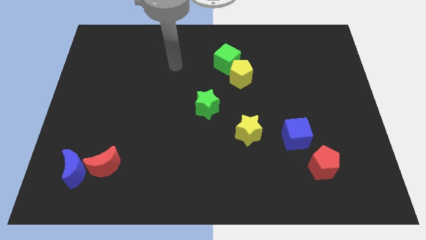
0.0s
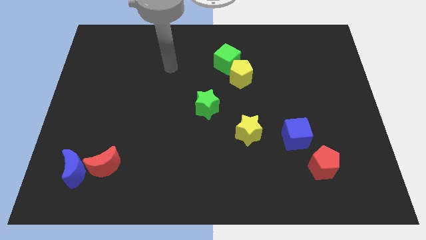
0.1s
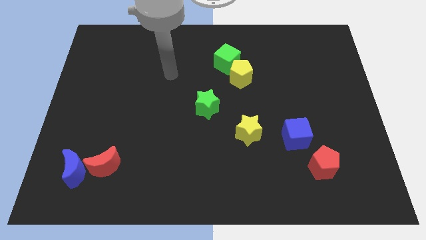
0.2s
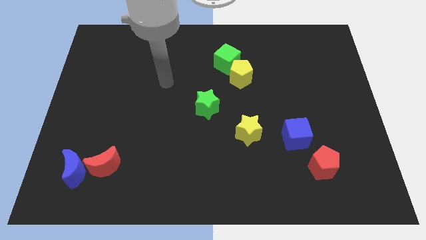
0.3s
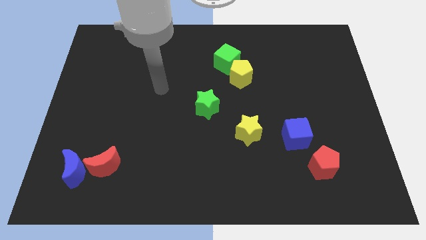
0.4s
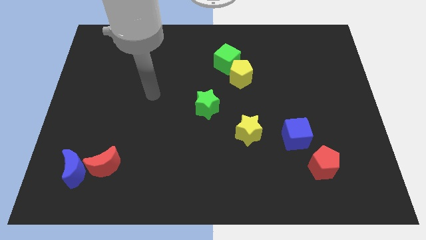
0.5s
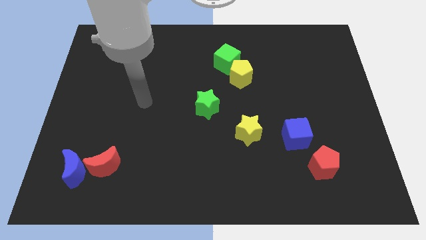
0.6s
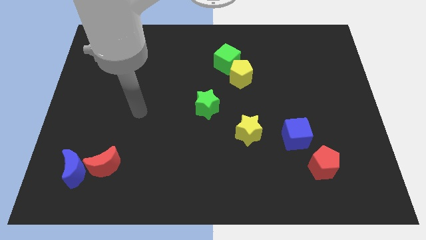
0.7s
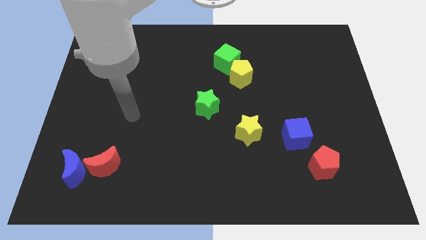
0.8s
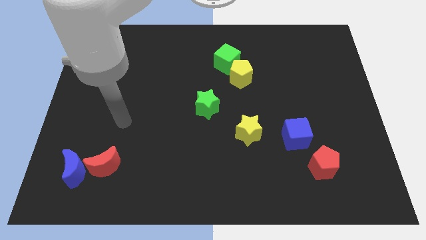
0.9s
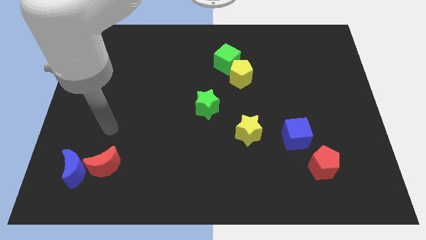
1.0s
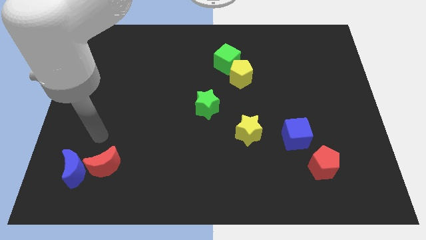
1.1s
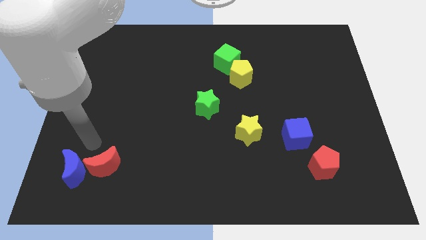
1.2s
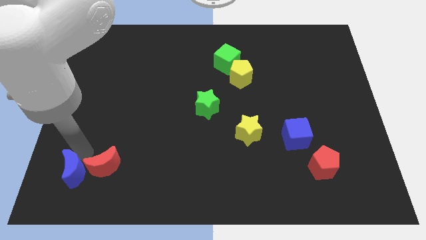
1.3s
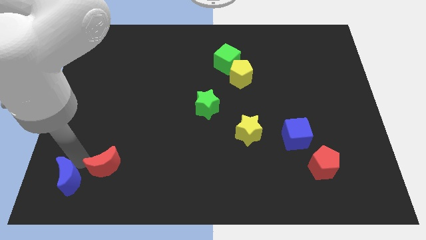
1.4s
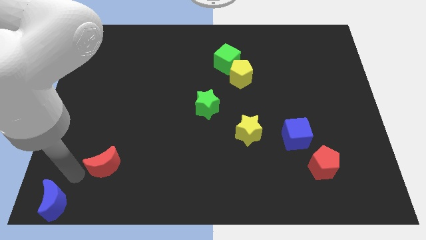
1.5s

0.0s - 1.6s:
separate the red moon from the blue moon

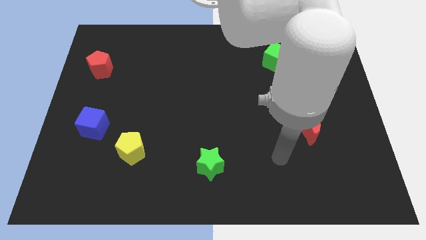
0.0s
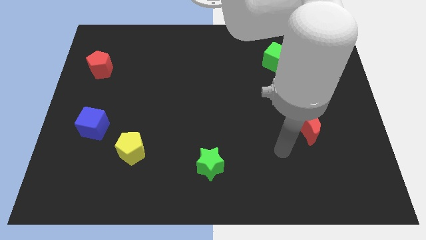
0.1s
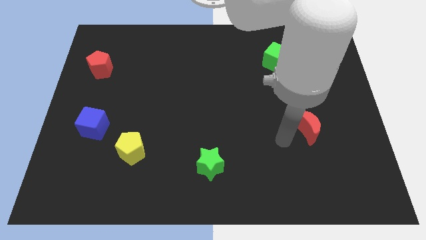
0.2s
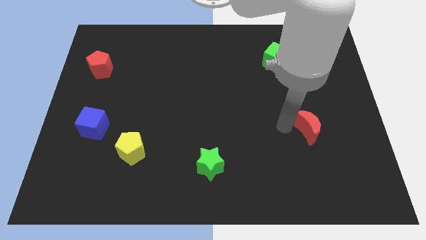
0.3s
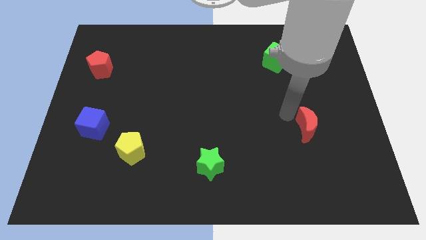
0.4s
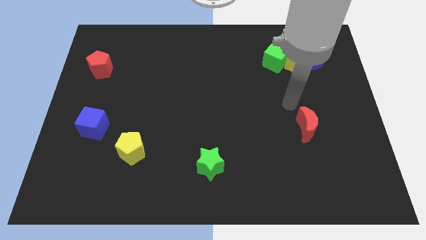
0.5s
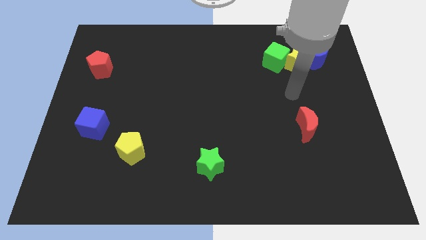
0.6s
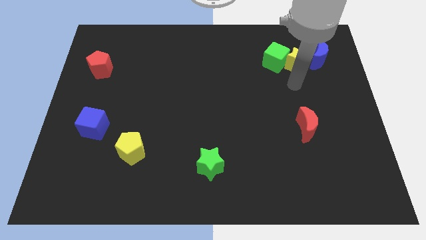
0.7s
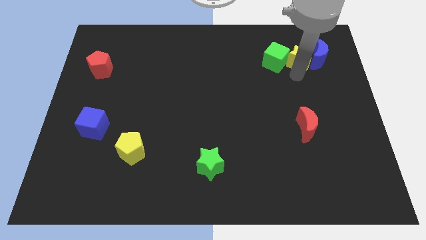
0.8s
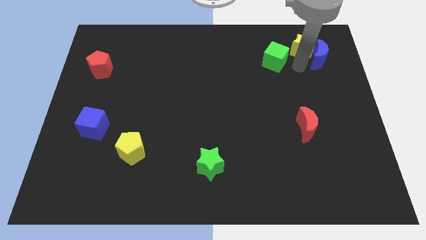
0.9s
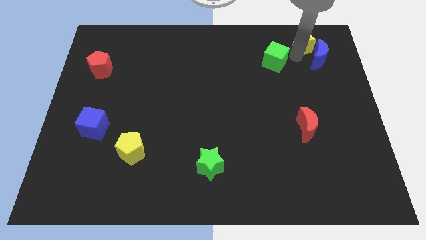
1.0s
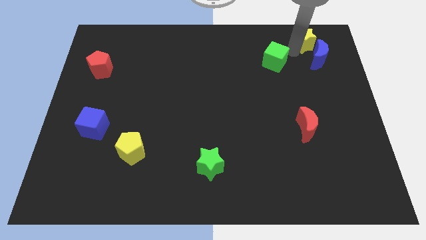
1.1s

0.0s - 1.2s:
pull the green cube apart from the yellow star

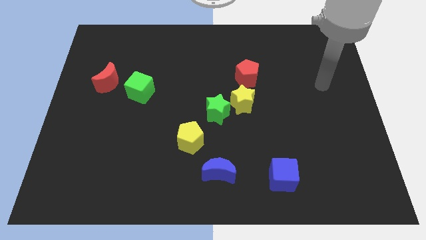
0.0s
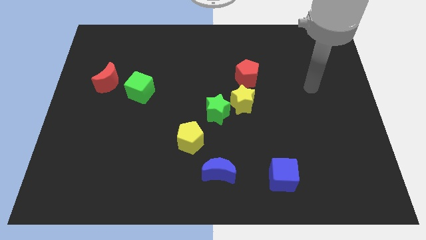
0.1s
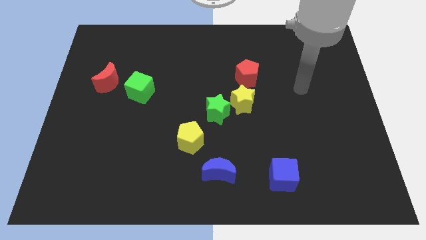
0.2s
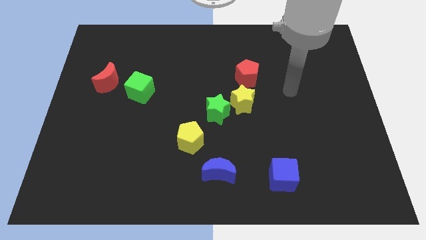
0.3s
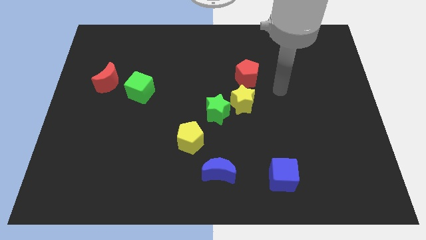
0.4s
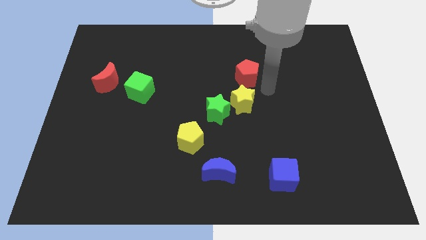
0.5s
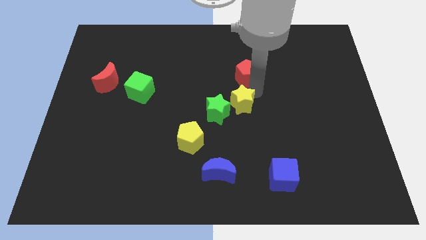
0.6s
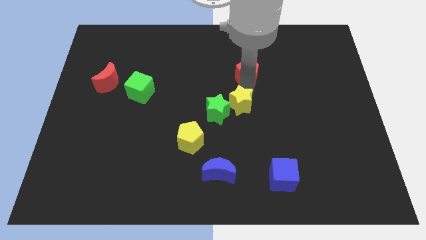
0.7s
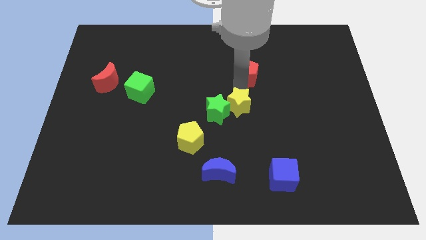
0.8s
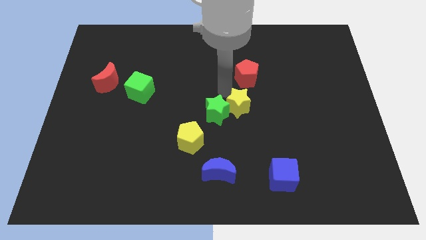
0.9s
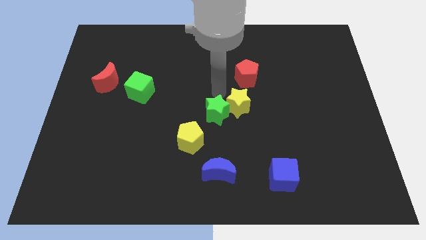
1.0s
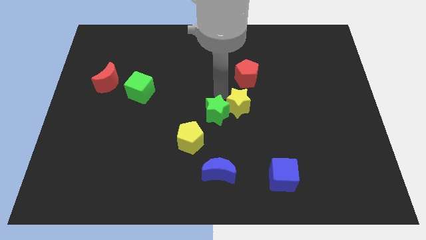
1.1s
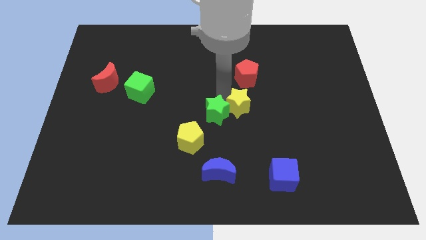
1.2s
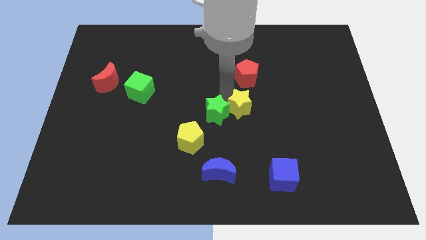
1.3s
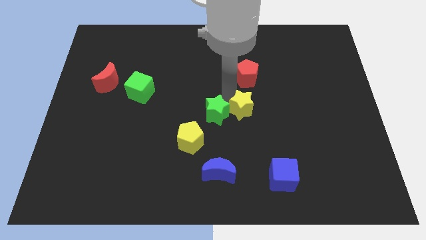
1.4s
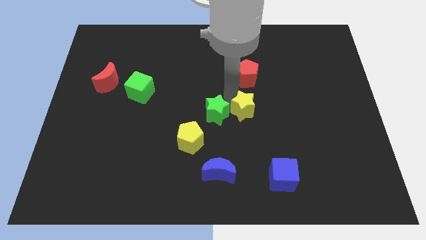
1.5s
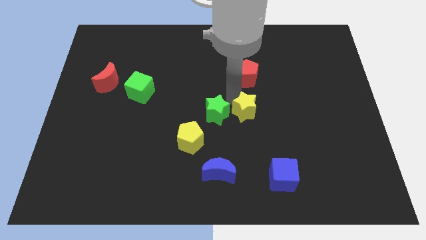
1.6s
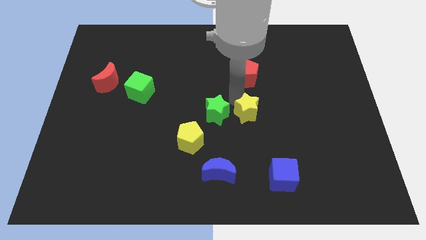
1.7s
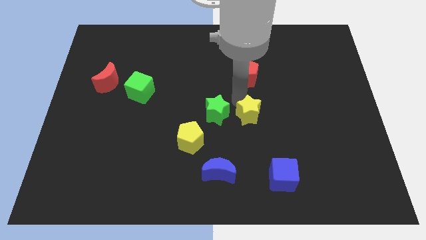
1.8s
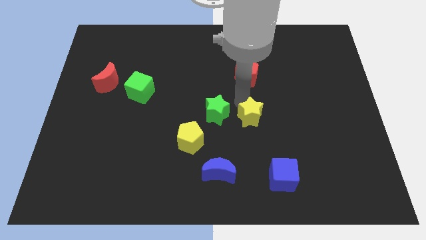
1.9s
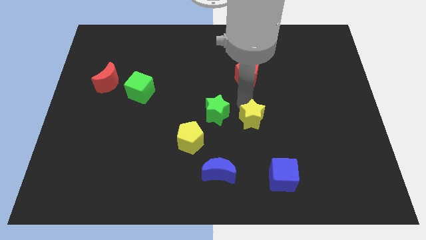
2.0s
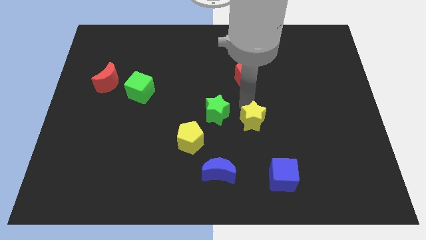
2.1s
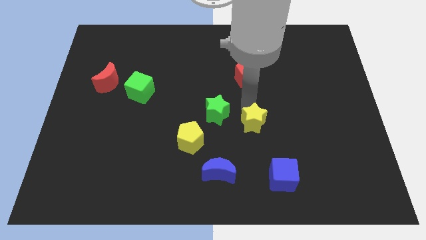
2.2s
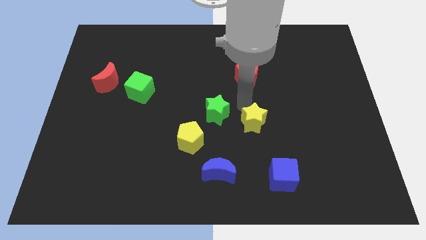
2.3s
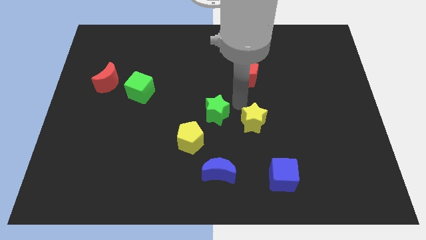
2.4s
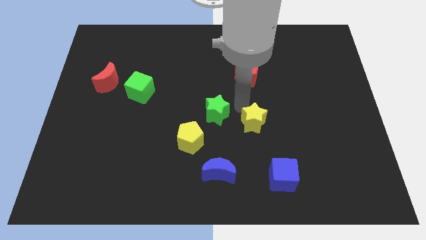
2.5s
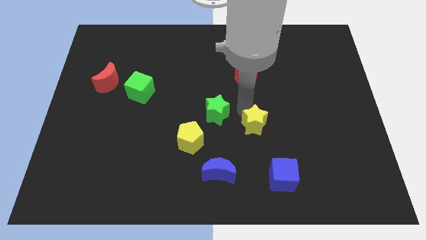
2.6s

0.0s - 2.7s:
separate the yellow star from the green star and red pentagon

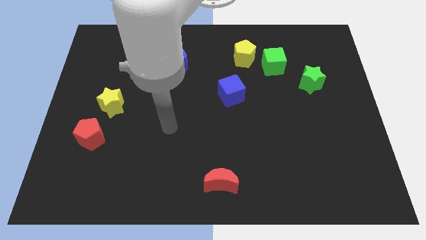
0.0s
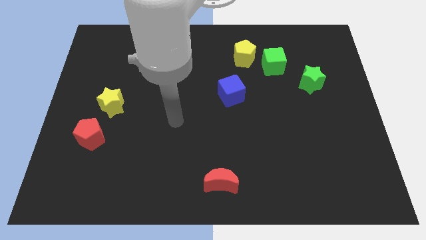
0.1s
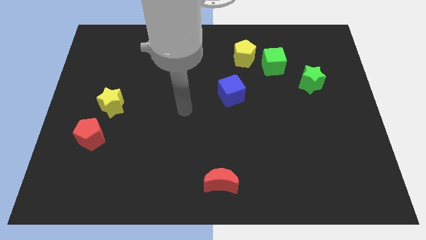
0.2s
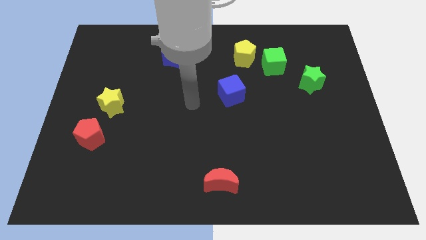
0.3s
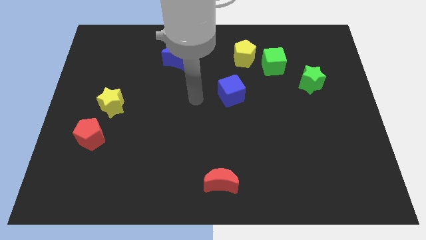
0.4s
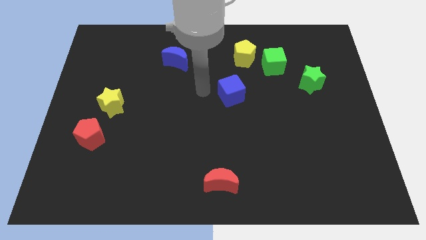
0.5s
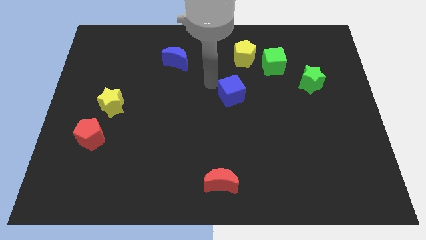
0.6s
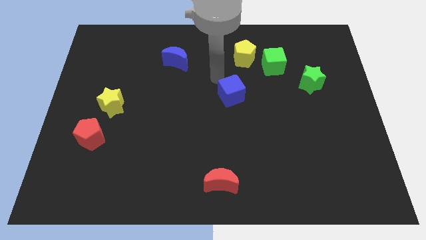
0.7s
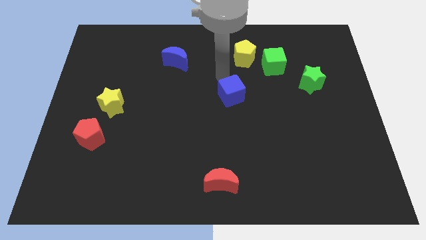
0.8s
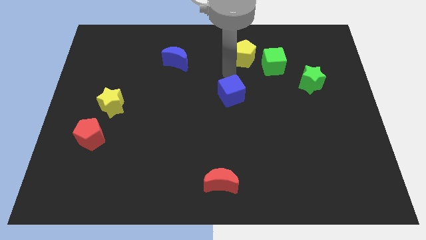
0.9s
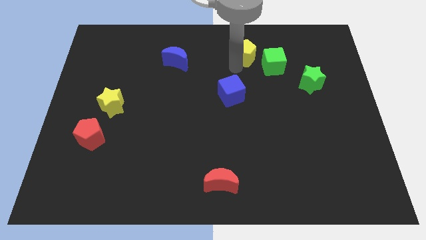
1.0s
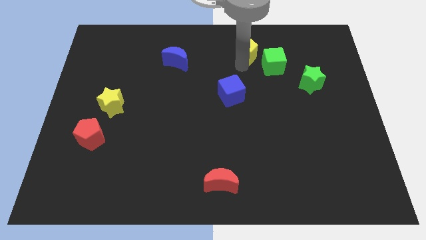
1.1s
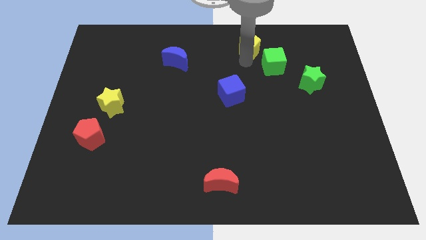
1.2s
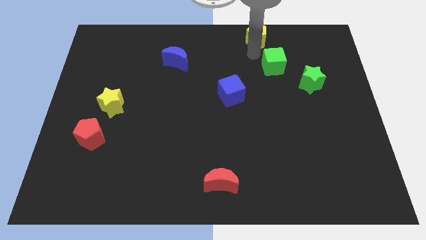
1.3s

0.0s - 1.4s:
separate the green cube from the yellow pentagon

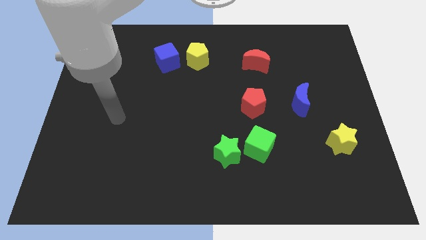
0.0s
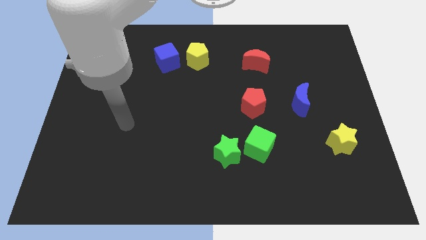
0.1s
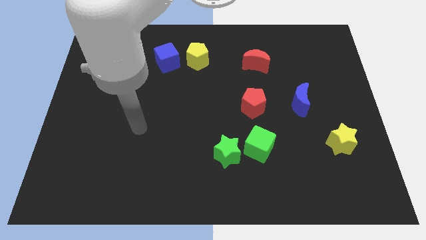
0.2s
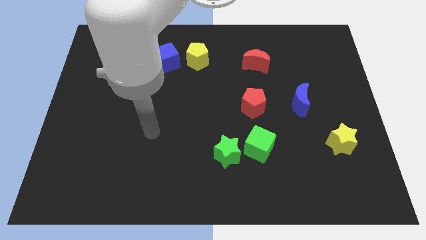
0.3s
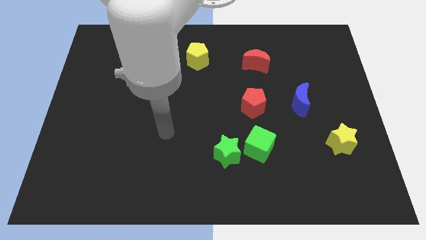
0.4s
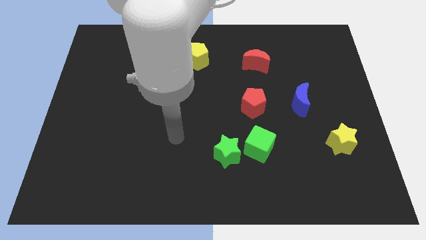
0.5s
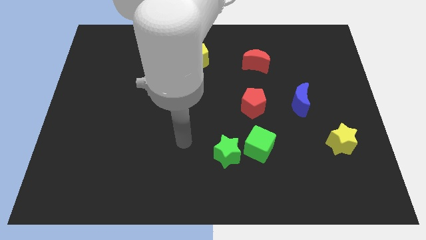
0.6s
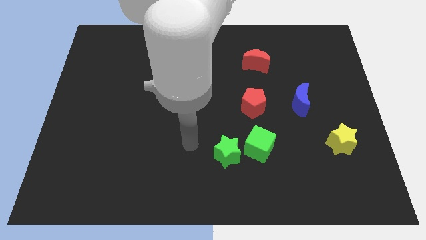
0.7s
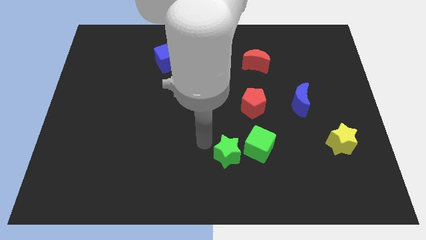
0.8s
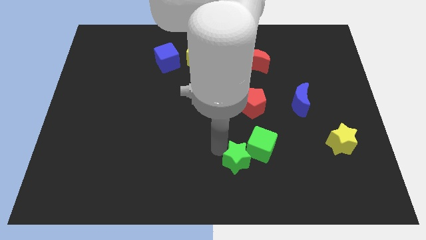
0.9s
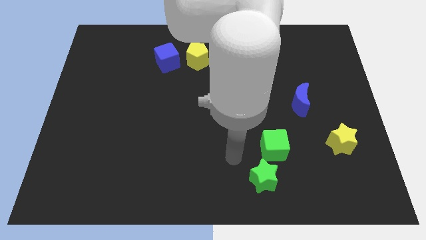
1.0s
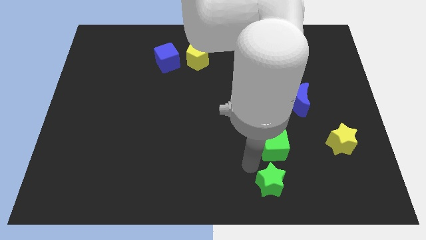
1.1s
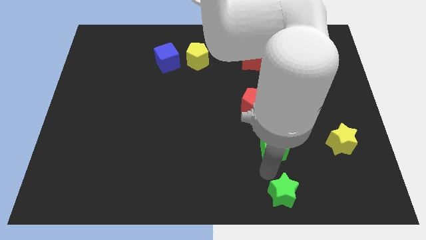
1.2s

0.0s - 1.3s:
move the green cube away from the green star

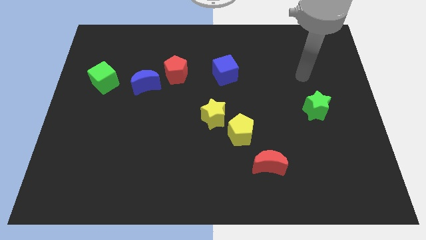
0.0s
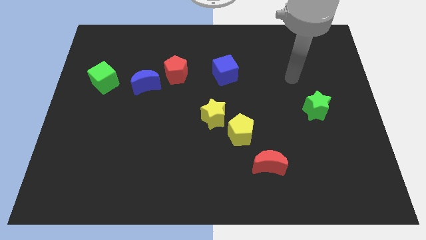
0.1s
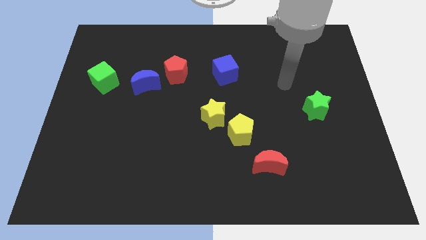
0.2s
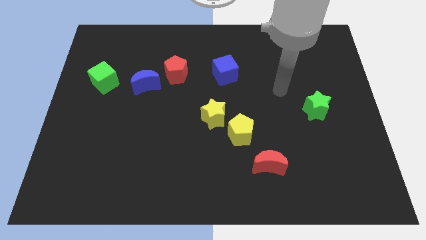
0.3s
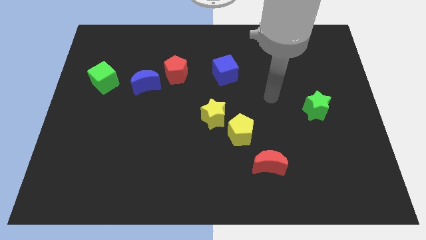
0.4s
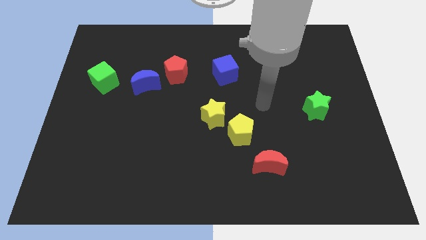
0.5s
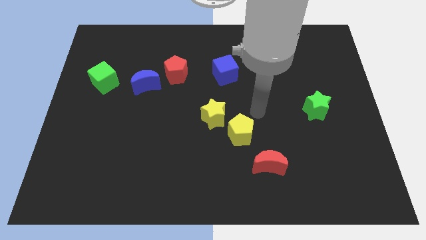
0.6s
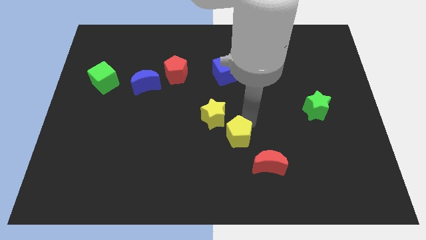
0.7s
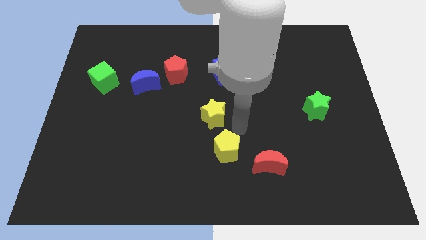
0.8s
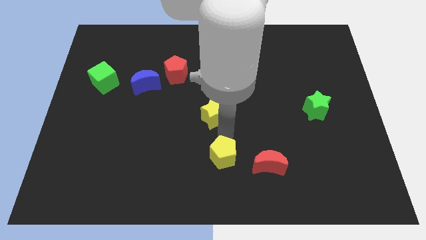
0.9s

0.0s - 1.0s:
move the yellow star away from the yellow pentagon

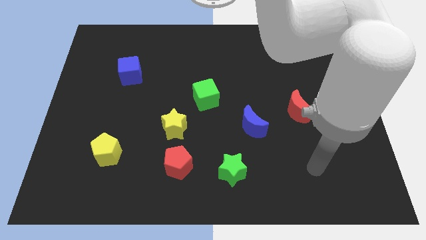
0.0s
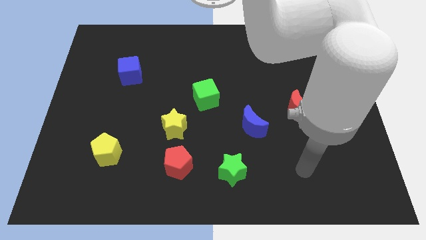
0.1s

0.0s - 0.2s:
pull the red pentagon apart from the yellow star
